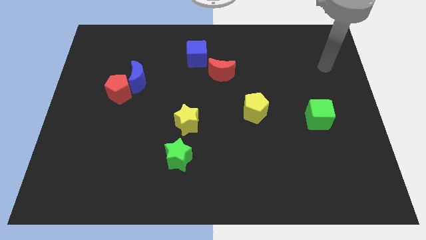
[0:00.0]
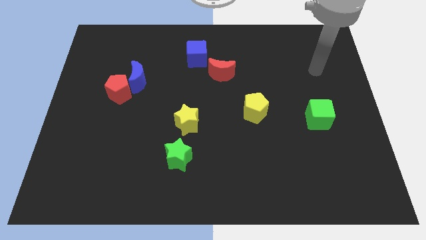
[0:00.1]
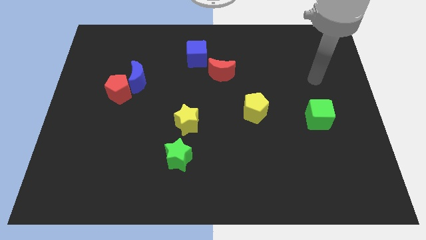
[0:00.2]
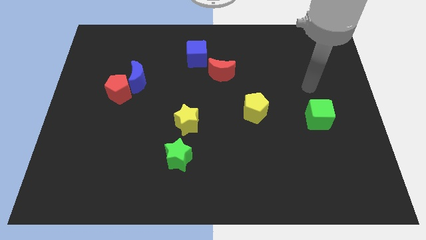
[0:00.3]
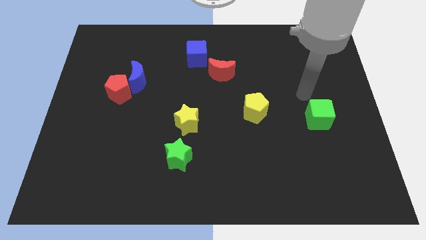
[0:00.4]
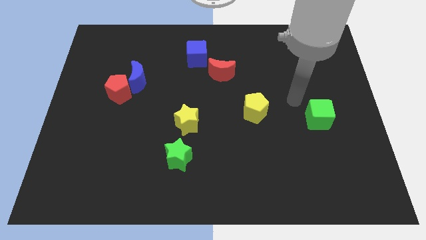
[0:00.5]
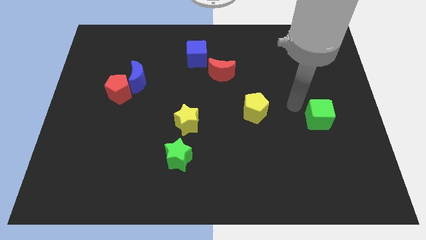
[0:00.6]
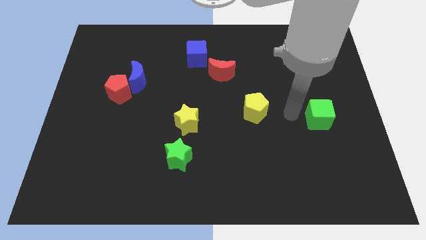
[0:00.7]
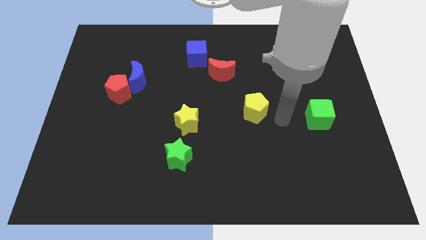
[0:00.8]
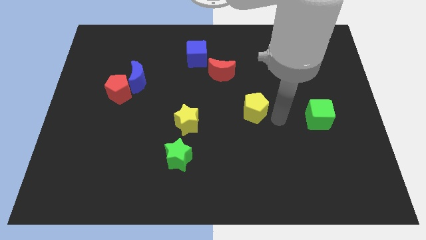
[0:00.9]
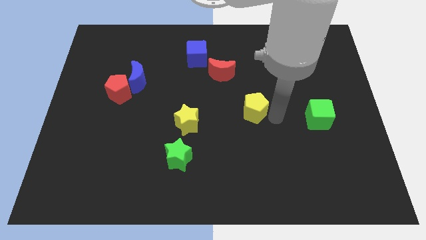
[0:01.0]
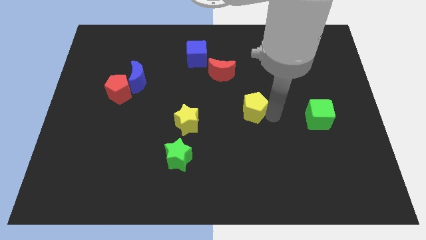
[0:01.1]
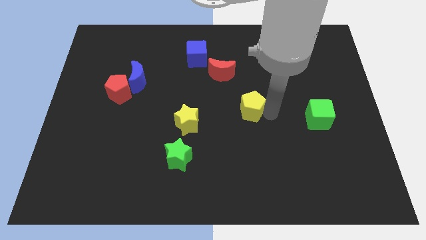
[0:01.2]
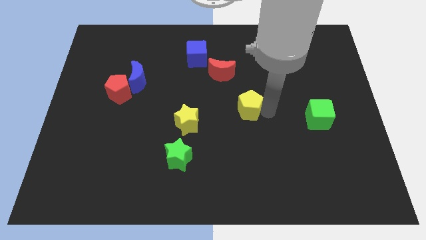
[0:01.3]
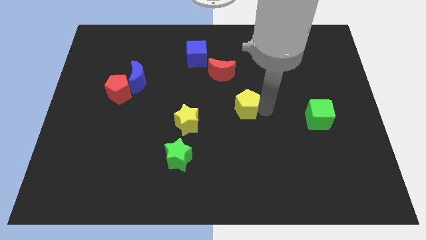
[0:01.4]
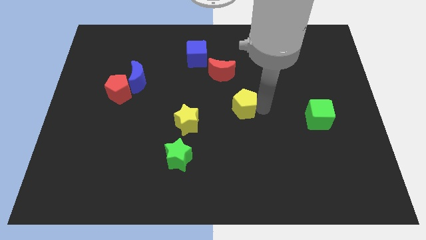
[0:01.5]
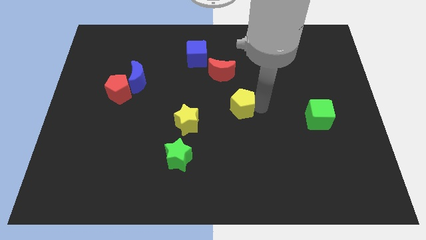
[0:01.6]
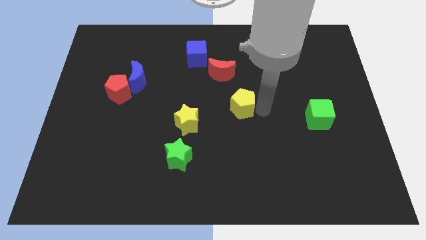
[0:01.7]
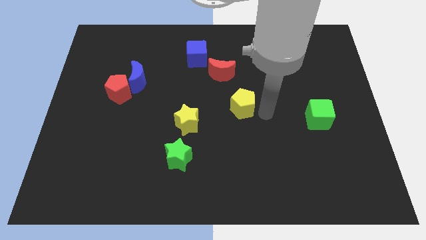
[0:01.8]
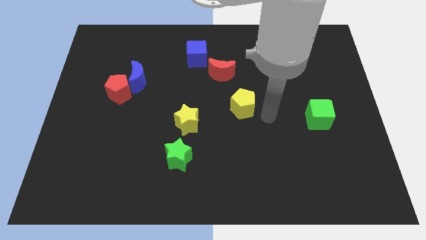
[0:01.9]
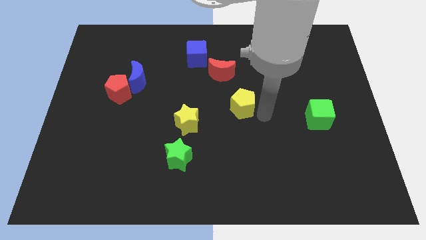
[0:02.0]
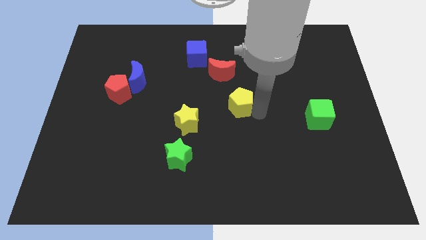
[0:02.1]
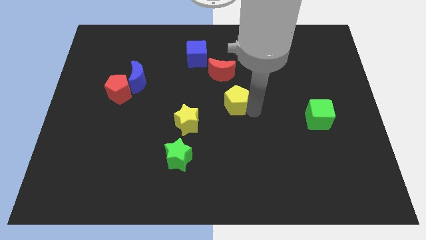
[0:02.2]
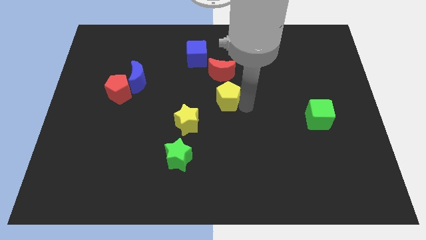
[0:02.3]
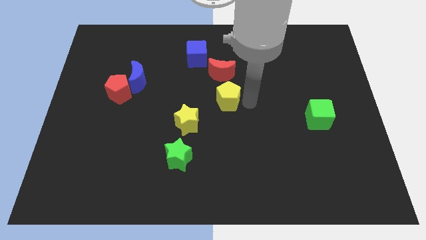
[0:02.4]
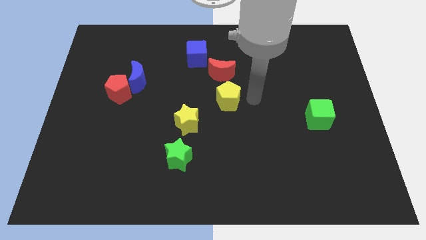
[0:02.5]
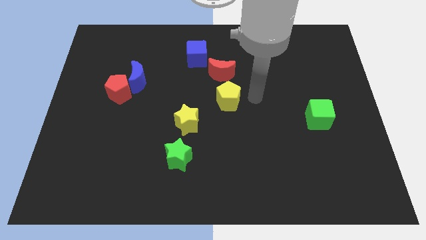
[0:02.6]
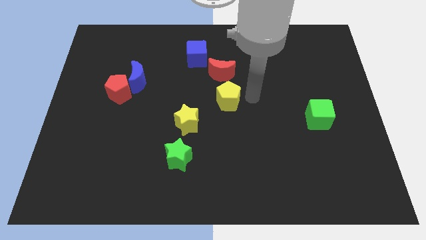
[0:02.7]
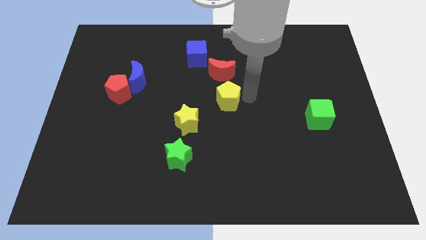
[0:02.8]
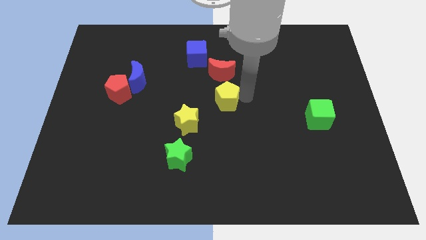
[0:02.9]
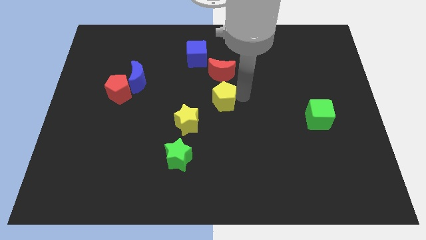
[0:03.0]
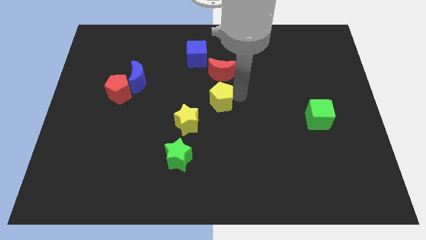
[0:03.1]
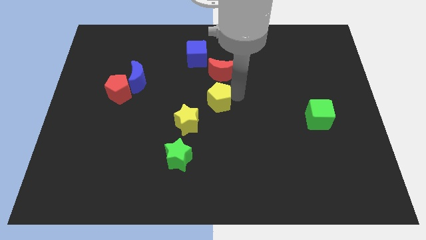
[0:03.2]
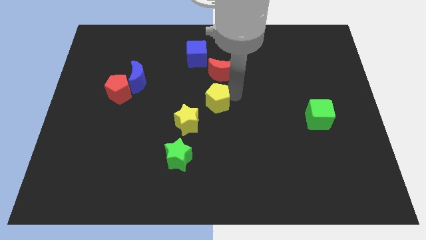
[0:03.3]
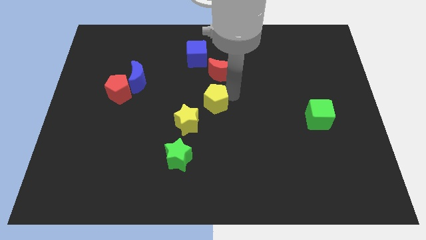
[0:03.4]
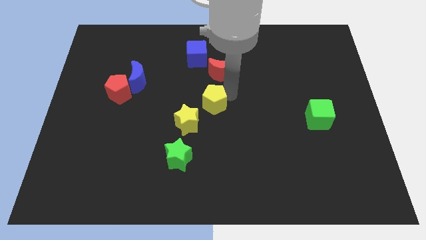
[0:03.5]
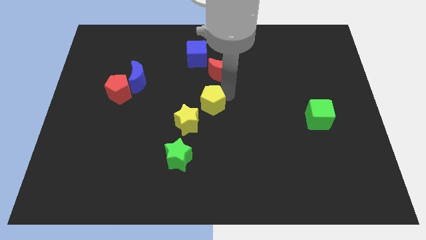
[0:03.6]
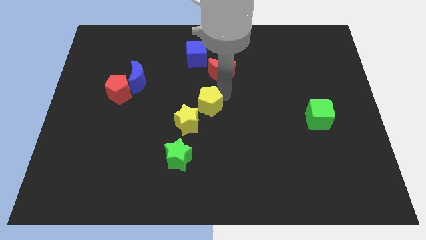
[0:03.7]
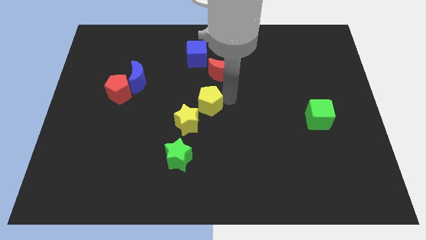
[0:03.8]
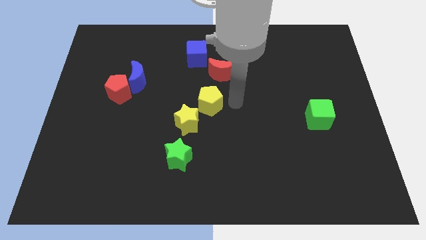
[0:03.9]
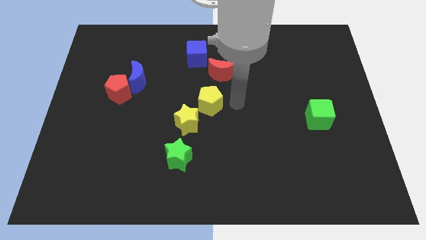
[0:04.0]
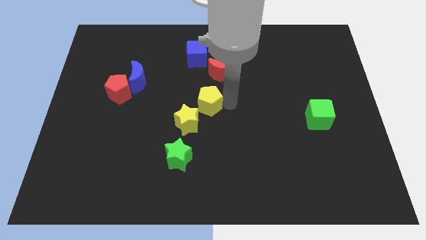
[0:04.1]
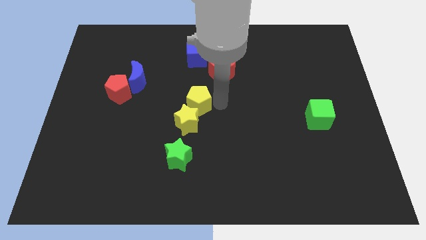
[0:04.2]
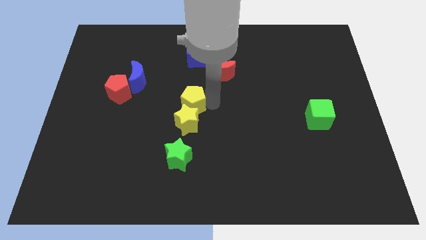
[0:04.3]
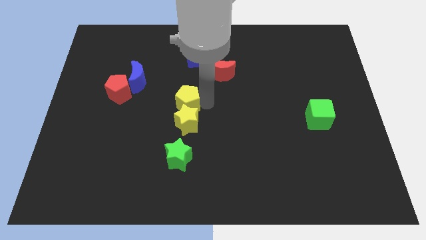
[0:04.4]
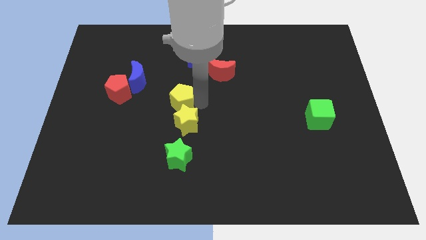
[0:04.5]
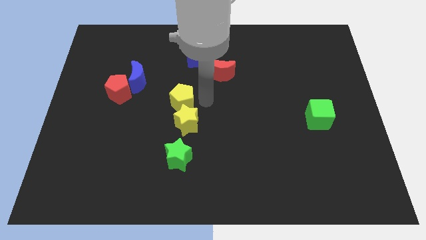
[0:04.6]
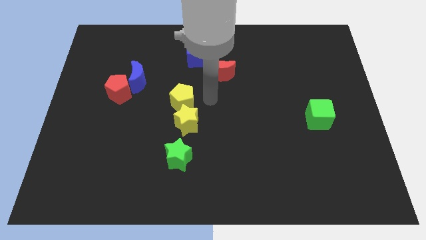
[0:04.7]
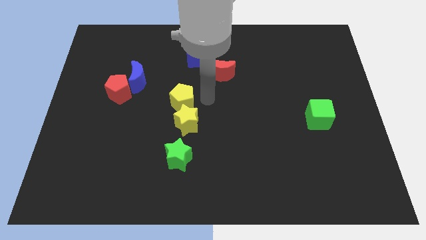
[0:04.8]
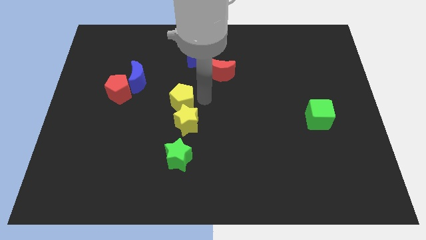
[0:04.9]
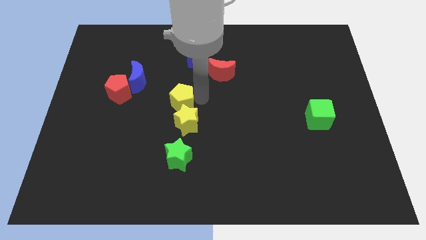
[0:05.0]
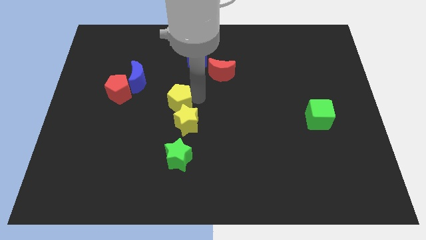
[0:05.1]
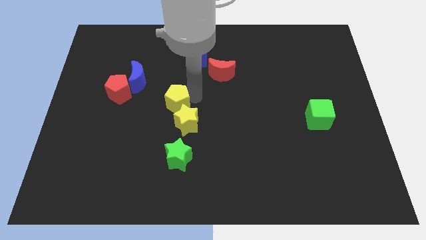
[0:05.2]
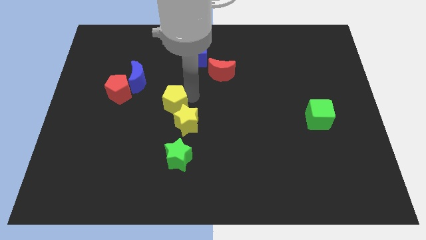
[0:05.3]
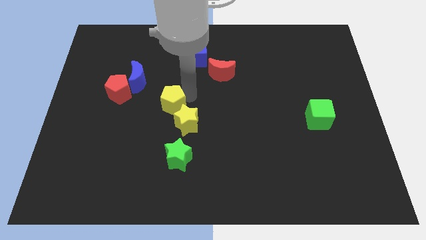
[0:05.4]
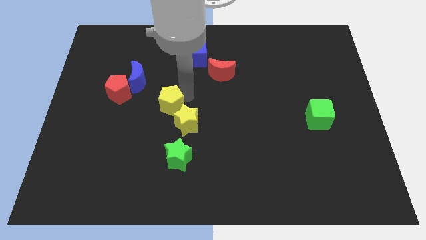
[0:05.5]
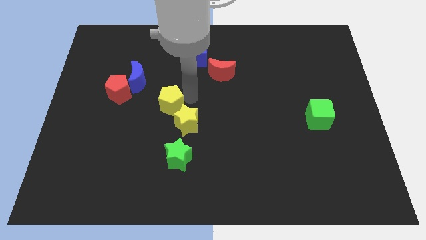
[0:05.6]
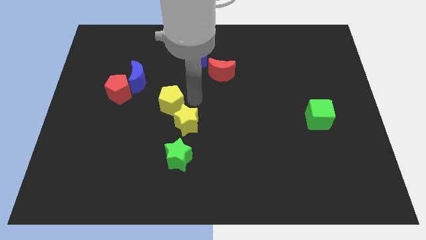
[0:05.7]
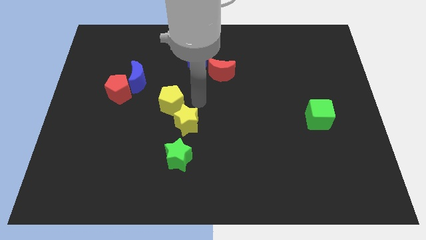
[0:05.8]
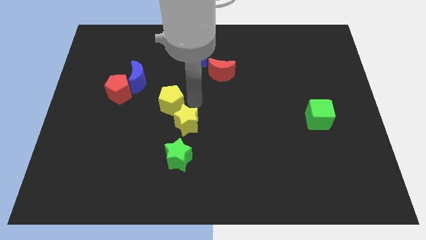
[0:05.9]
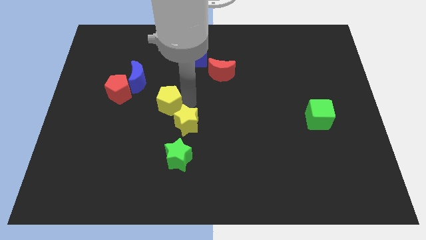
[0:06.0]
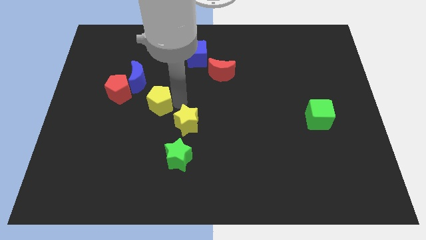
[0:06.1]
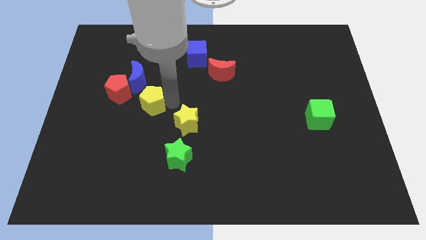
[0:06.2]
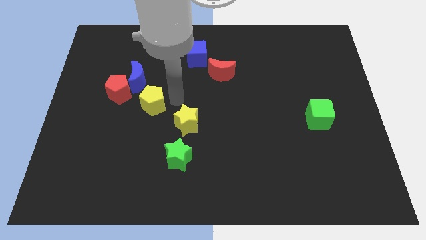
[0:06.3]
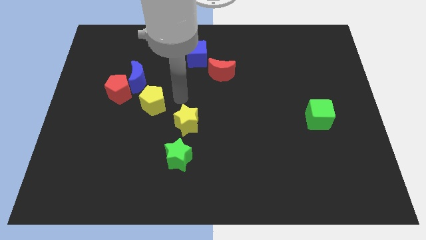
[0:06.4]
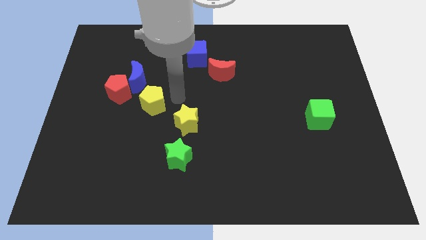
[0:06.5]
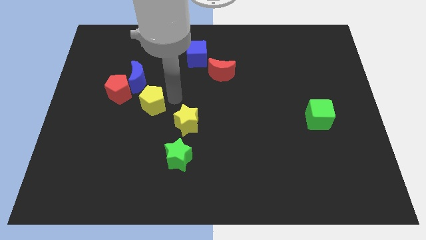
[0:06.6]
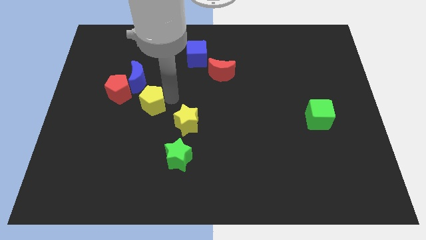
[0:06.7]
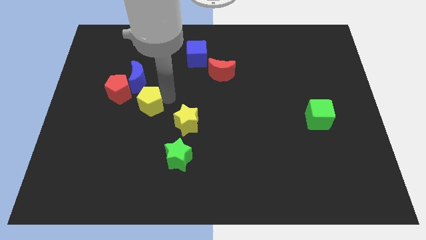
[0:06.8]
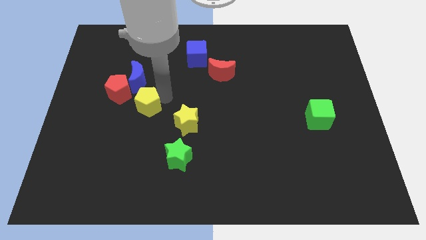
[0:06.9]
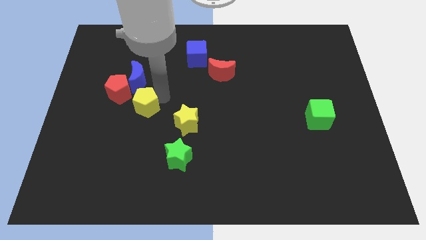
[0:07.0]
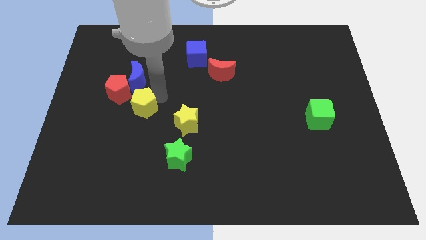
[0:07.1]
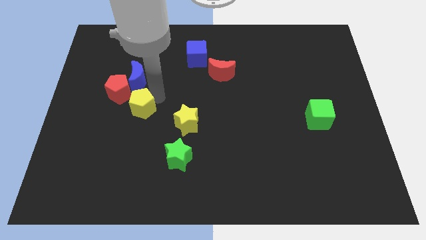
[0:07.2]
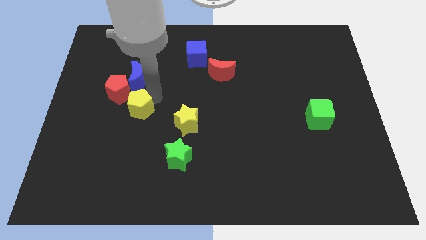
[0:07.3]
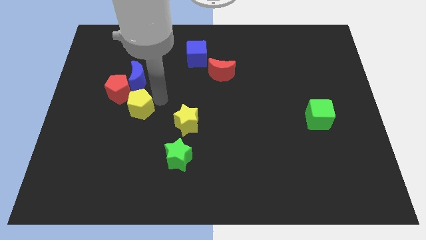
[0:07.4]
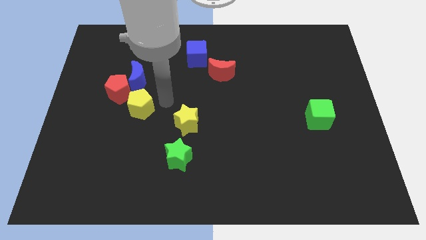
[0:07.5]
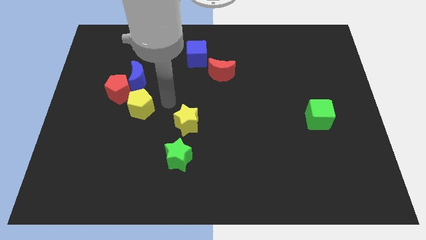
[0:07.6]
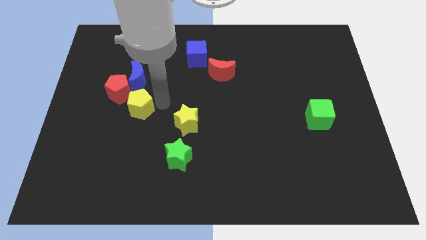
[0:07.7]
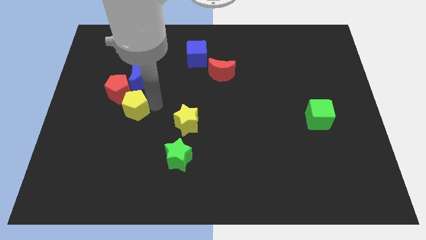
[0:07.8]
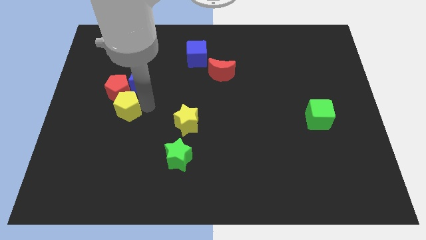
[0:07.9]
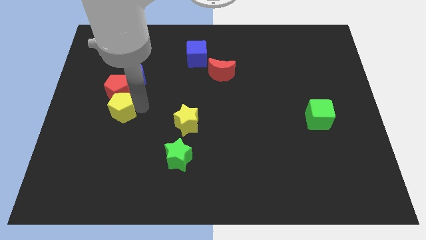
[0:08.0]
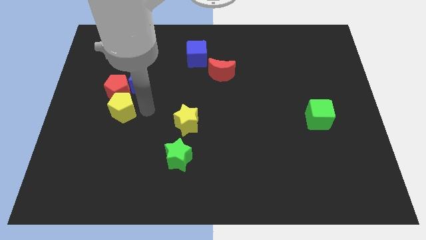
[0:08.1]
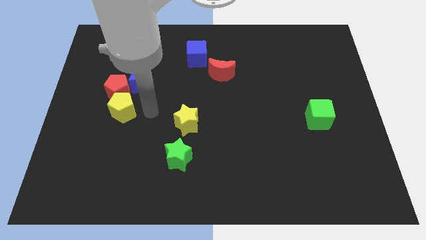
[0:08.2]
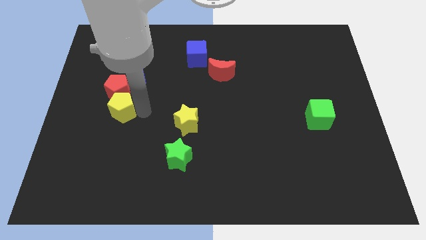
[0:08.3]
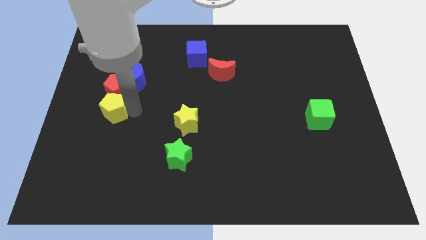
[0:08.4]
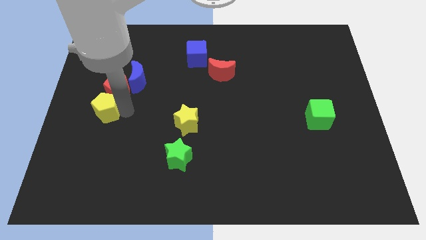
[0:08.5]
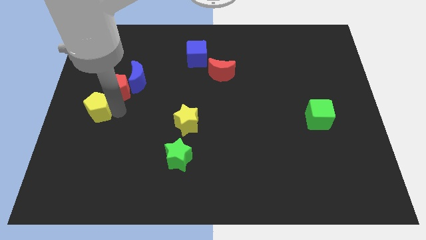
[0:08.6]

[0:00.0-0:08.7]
move the yellow pentagon to the center left
